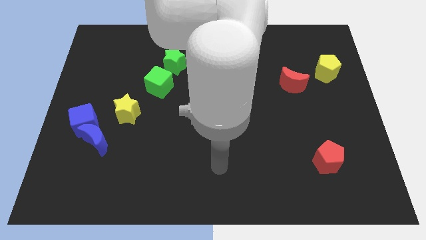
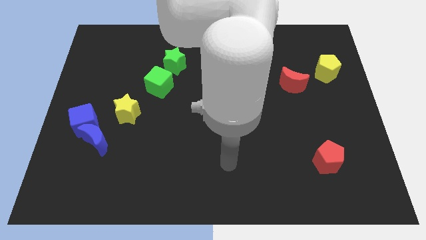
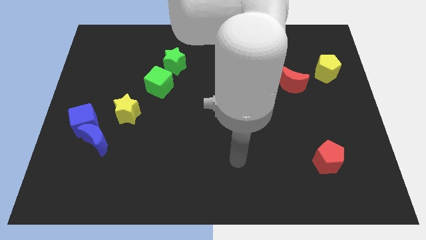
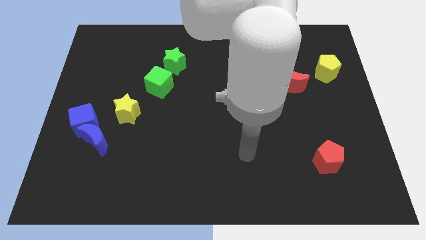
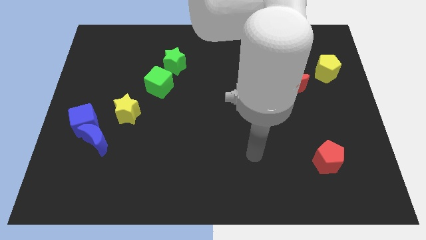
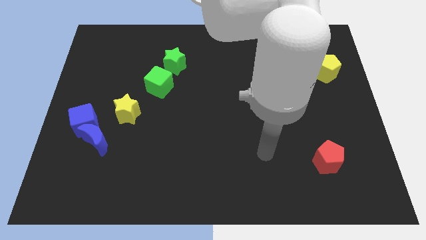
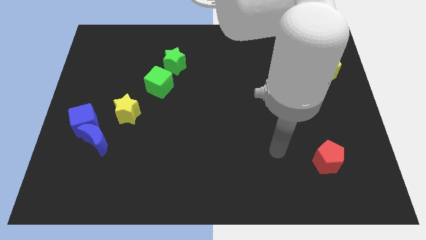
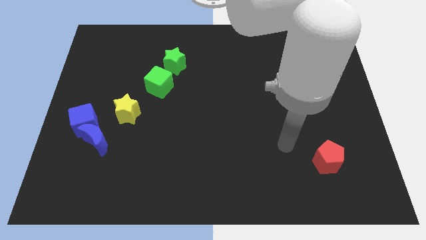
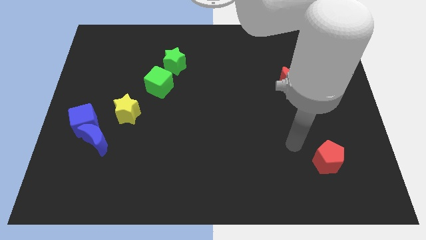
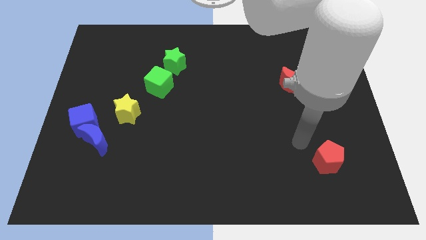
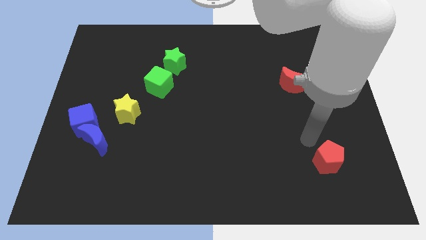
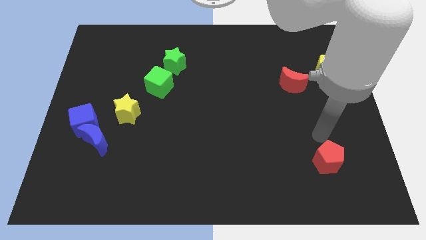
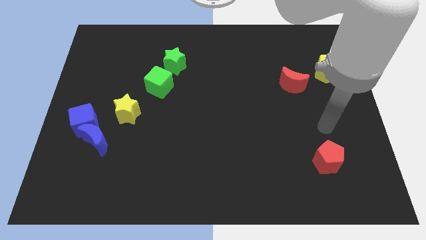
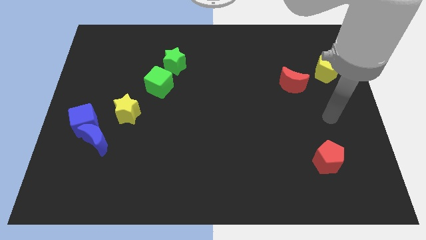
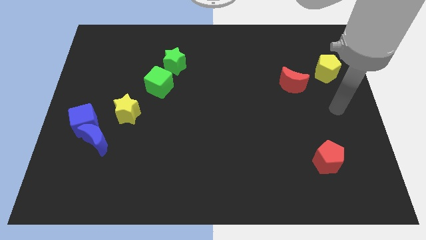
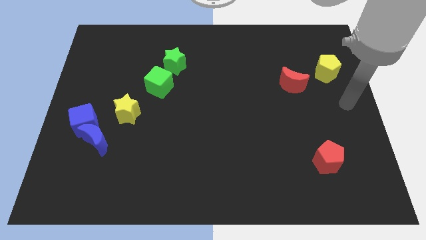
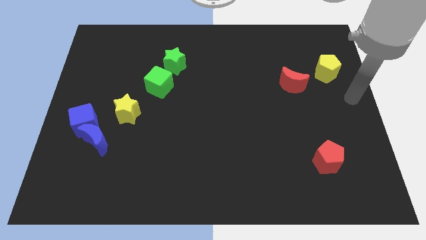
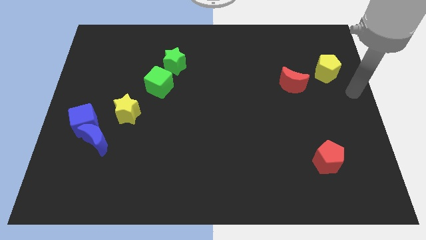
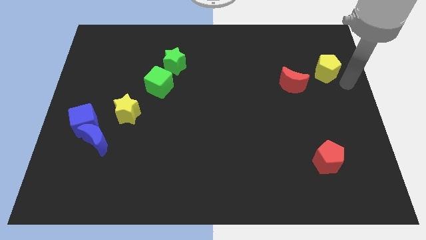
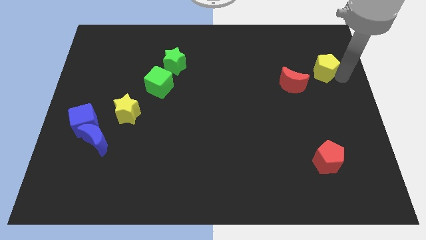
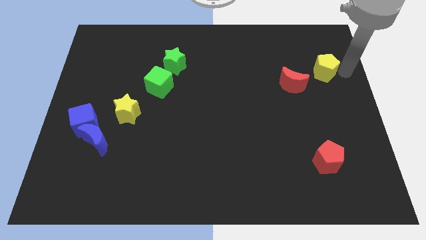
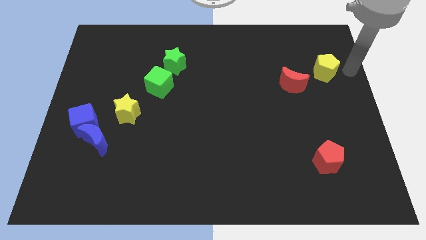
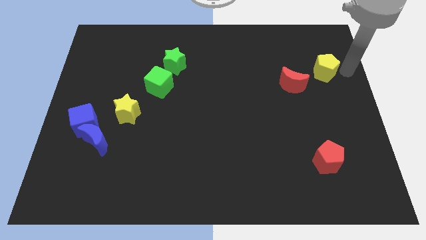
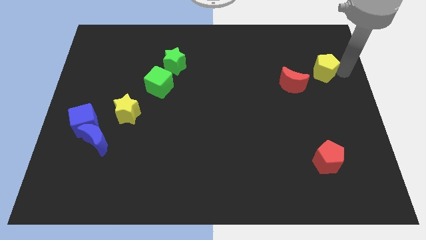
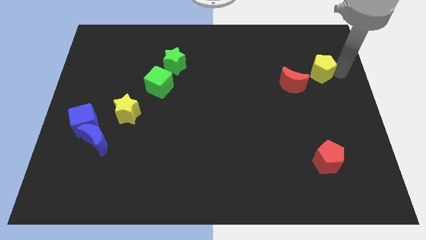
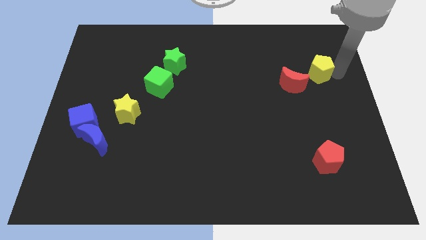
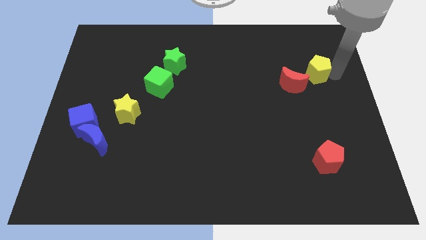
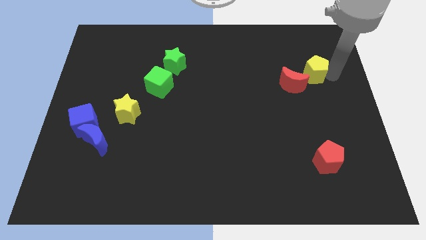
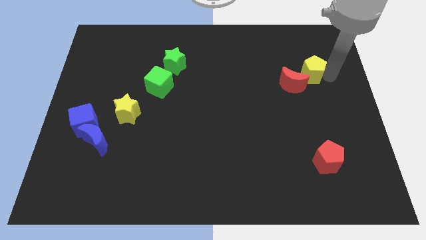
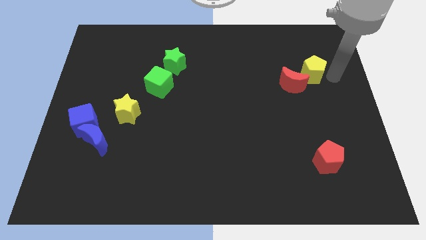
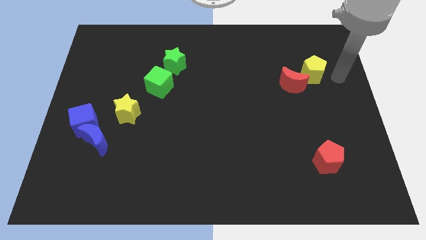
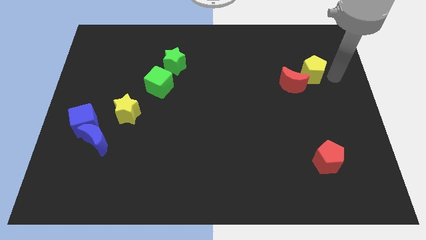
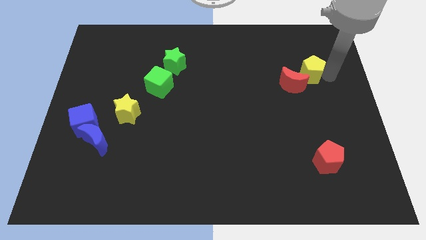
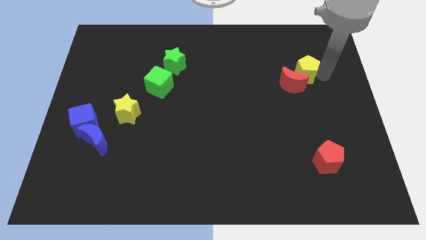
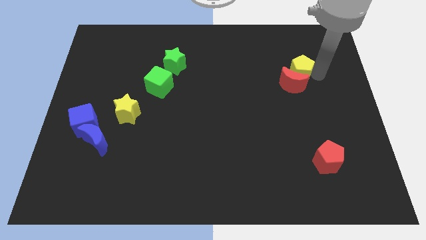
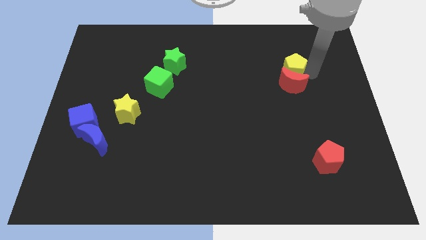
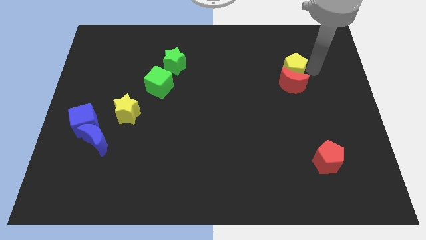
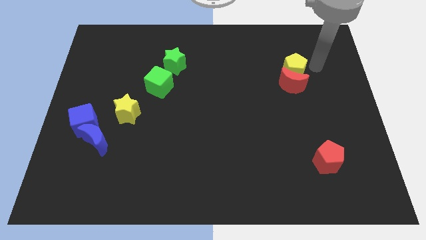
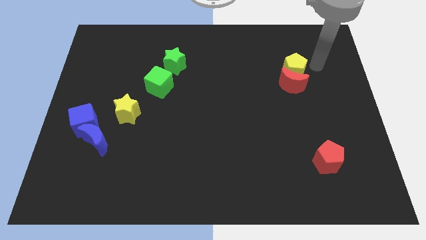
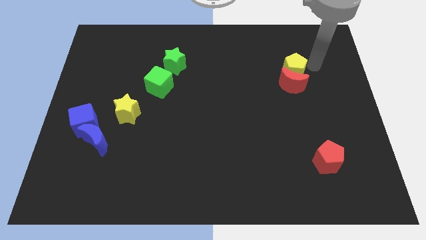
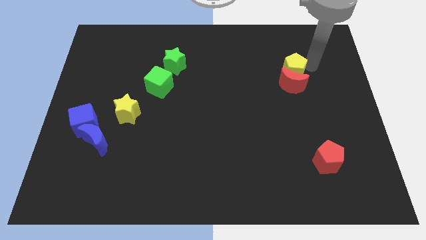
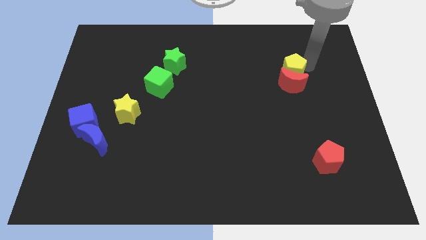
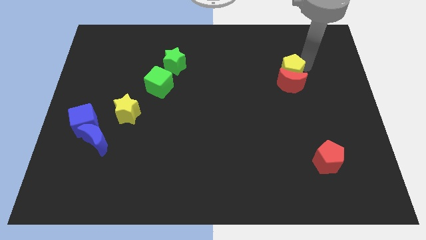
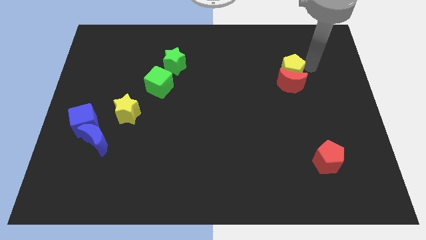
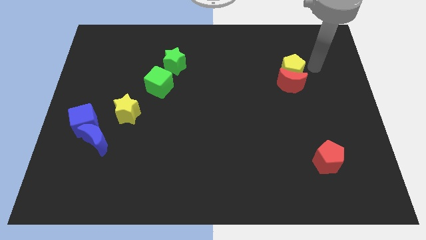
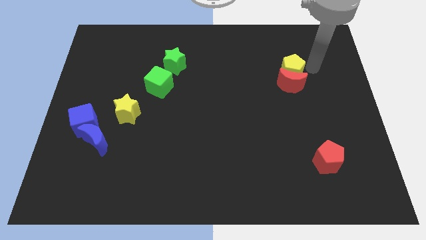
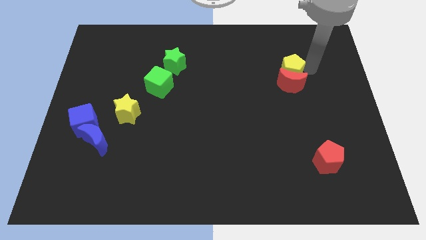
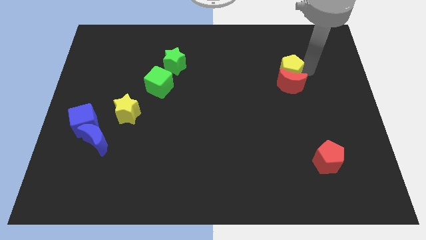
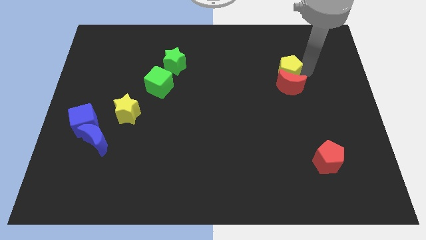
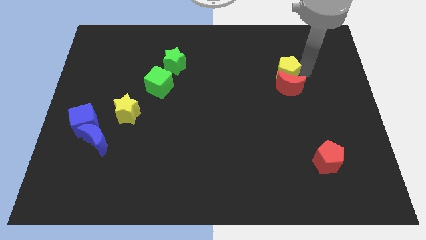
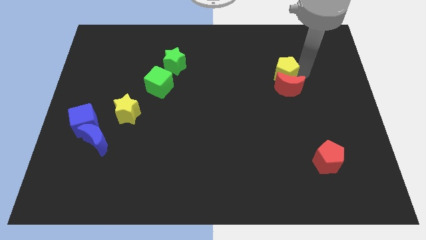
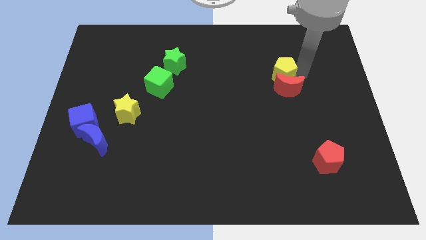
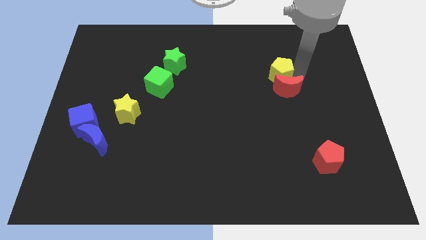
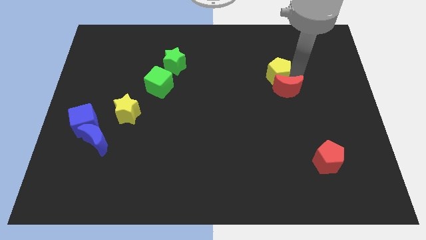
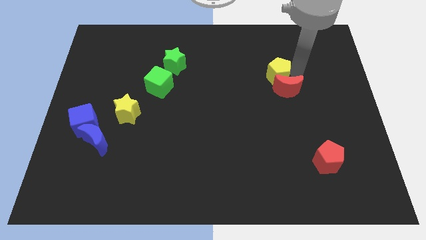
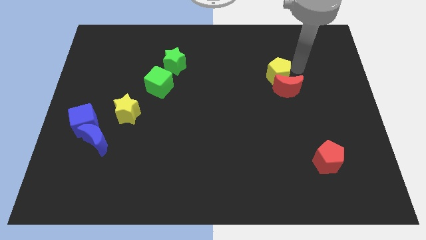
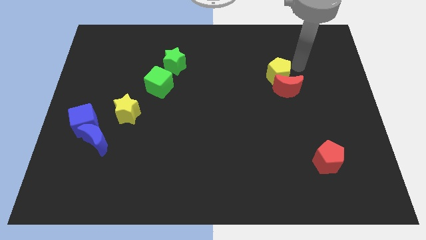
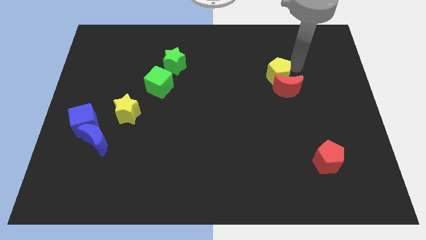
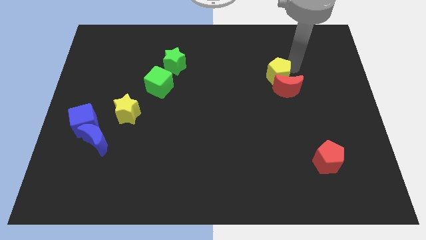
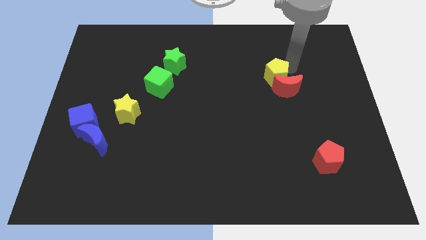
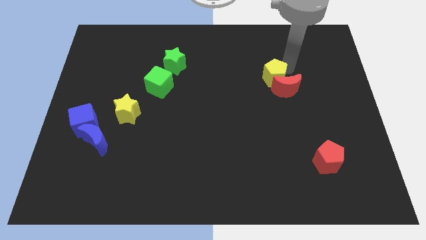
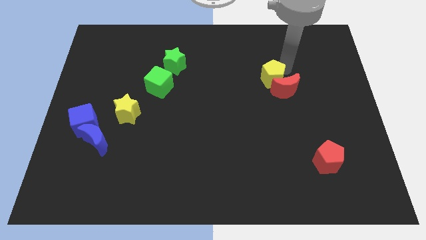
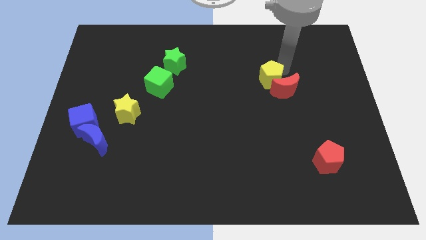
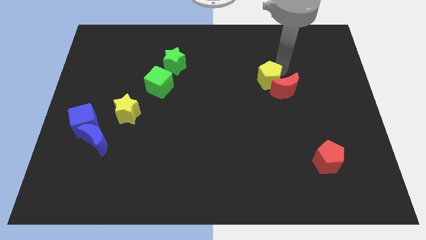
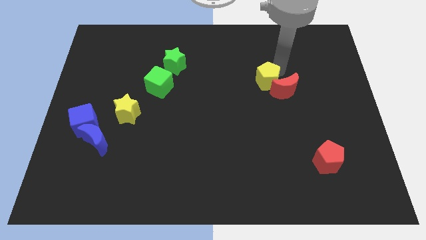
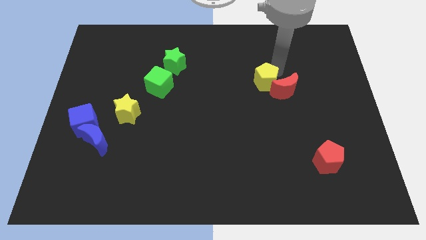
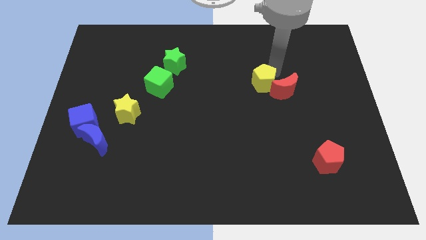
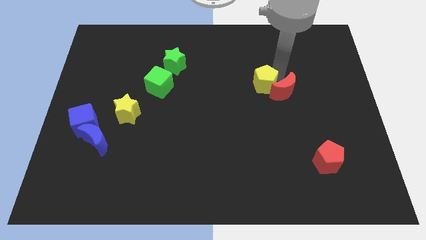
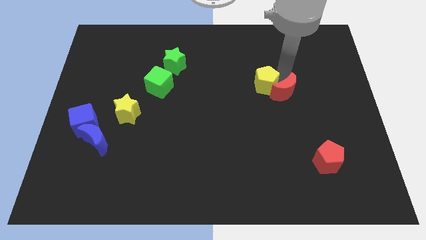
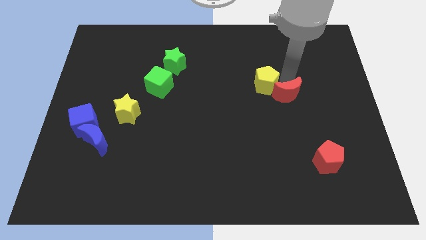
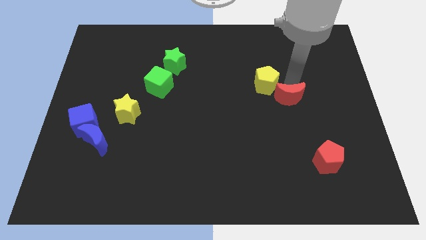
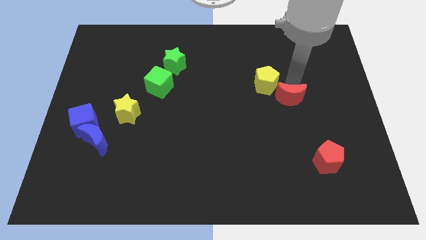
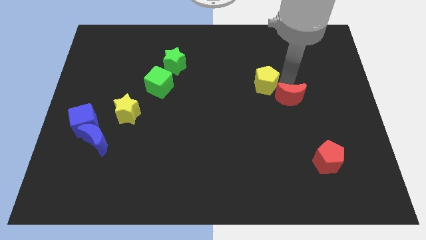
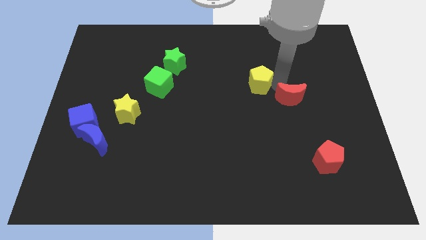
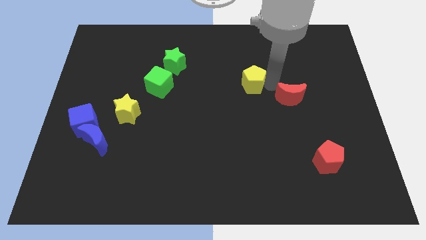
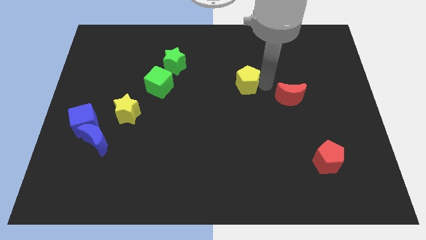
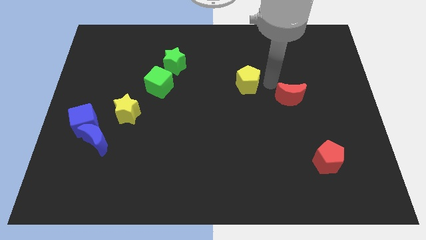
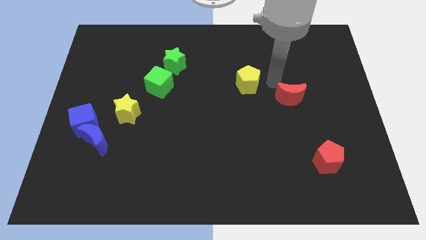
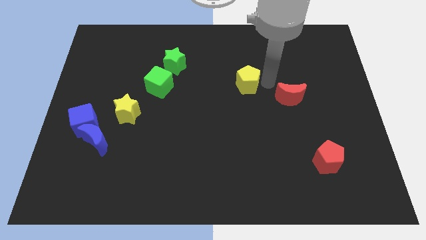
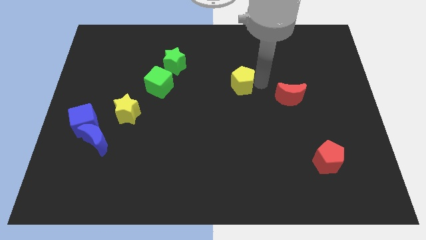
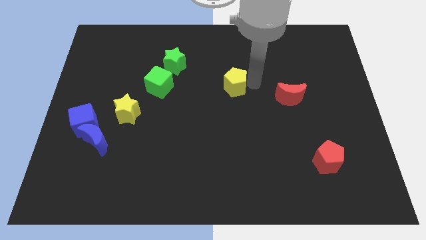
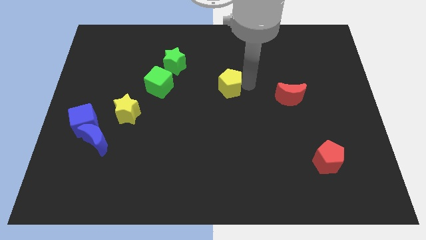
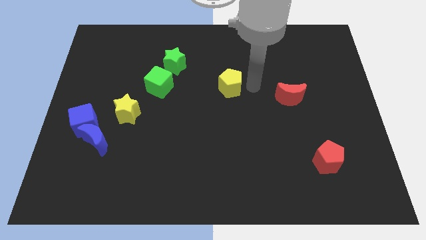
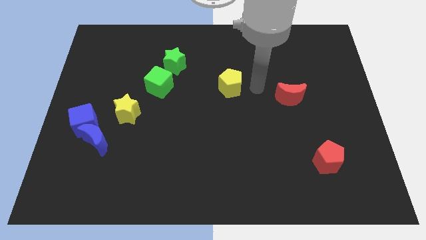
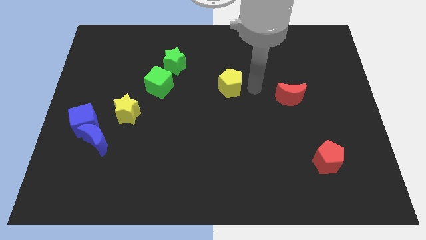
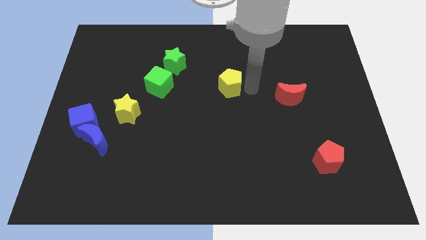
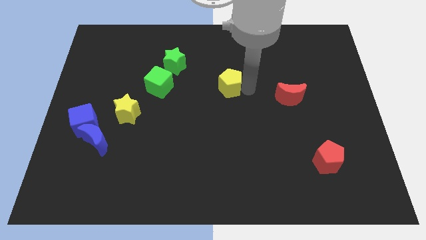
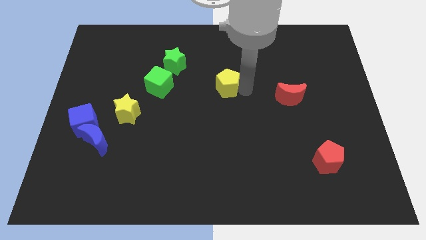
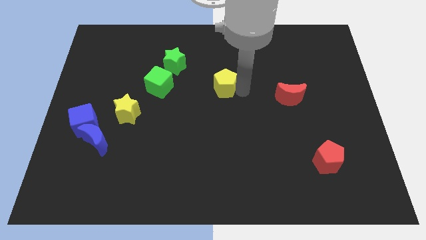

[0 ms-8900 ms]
move the yellow pentagon to the right side of the green cube
